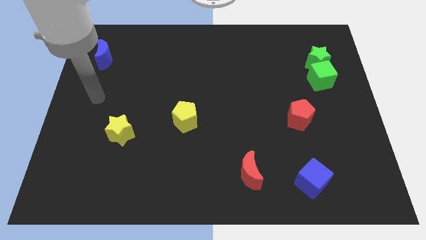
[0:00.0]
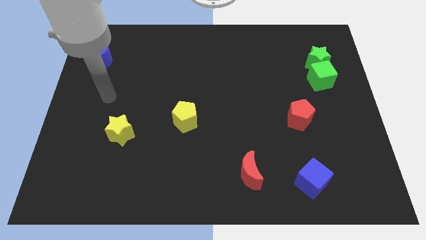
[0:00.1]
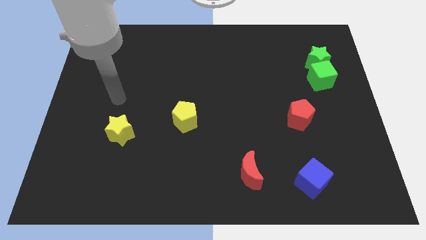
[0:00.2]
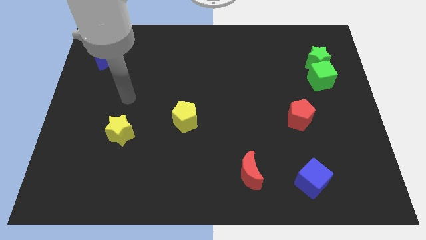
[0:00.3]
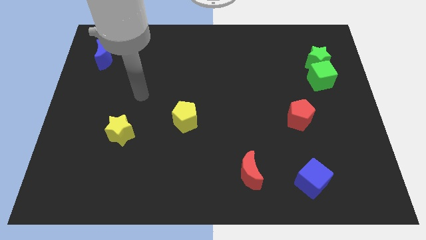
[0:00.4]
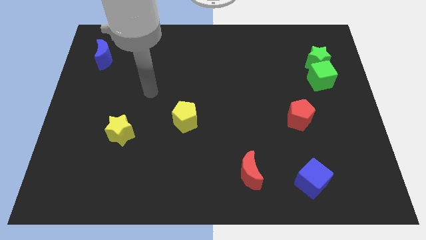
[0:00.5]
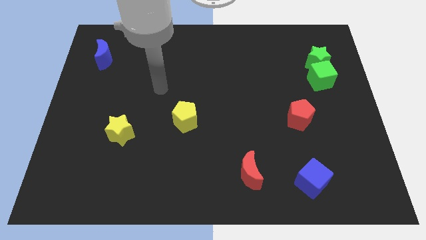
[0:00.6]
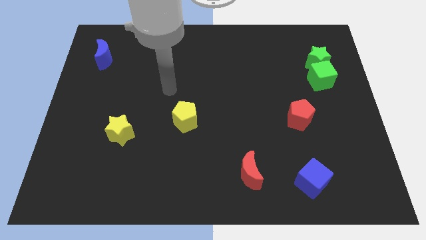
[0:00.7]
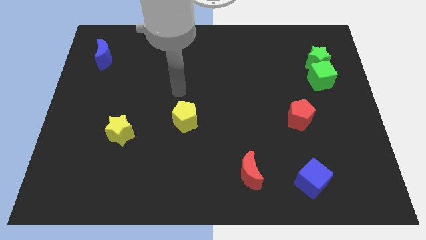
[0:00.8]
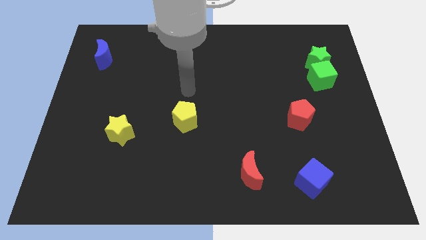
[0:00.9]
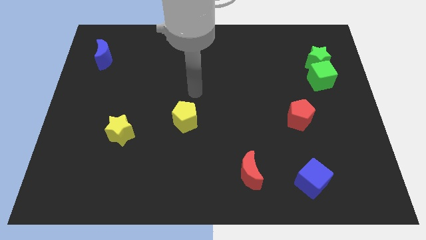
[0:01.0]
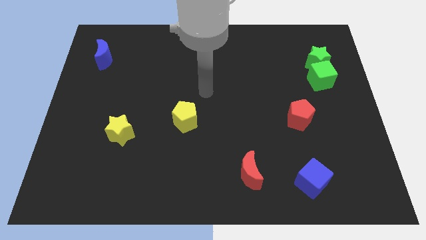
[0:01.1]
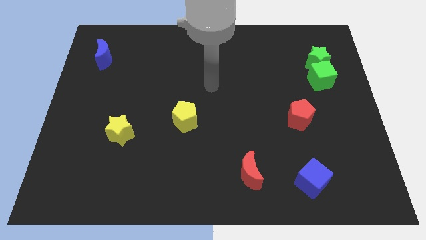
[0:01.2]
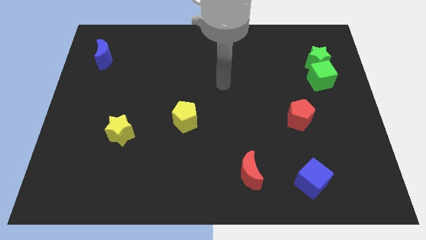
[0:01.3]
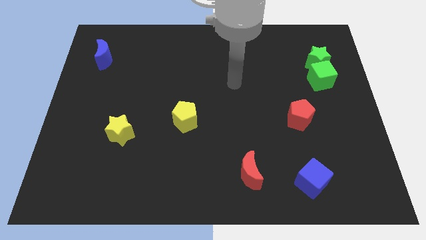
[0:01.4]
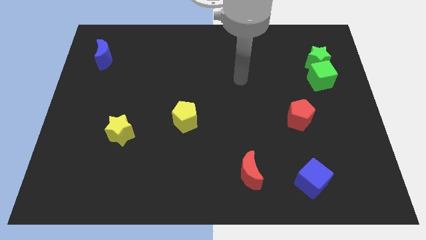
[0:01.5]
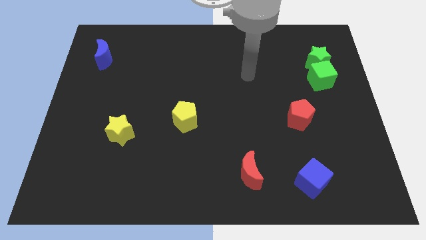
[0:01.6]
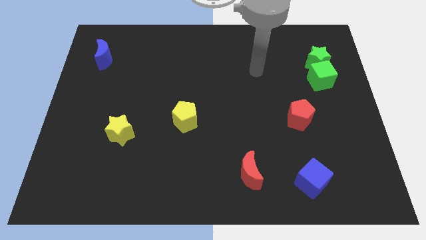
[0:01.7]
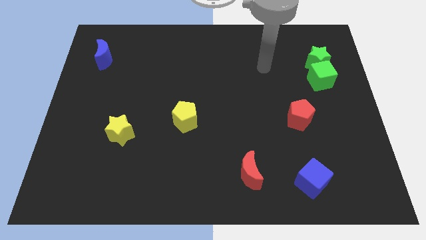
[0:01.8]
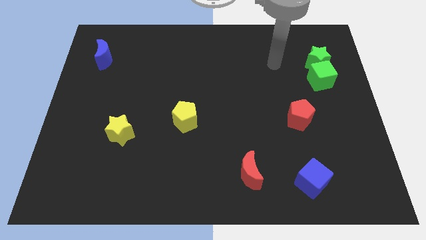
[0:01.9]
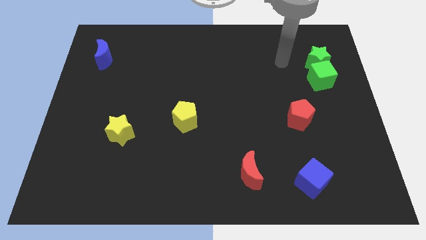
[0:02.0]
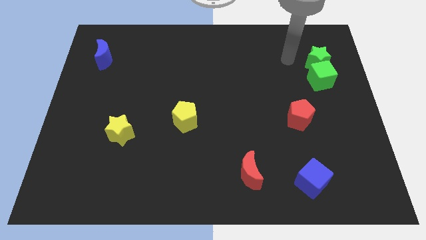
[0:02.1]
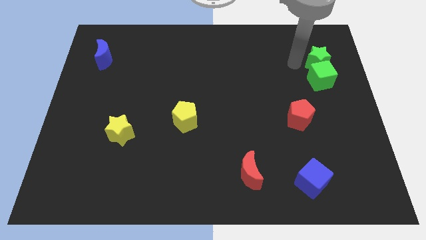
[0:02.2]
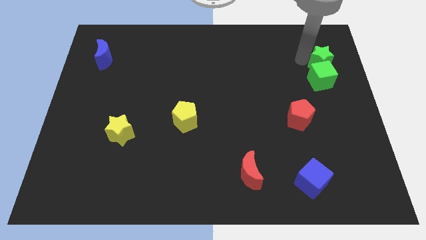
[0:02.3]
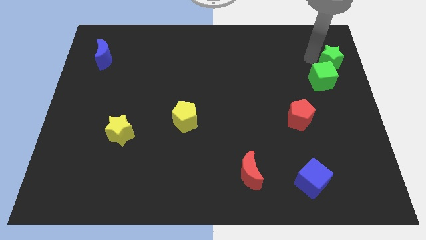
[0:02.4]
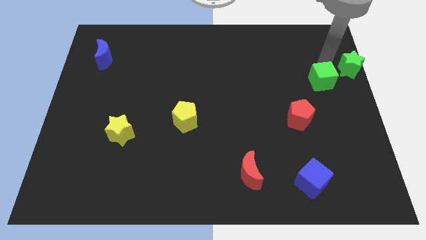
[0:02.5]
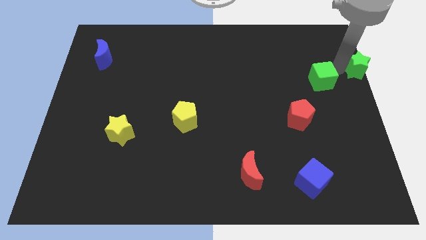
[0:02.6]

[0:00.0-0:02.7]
move the green cube away from the green star

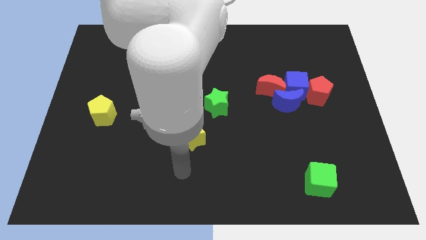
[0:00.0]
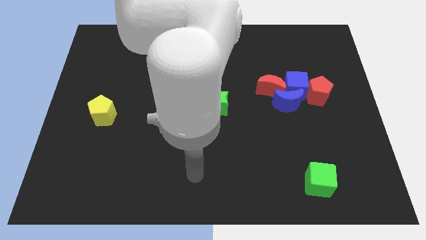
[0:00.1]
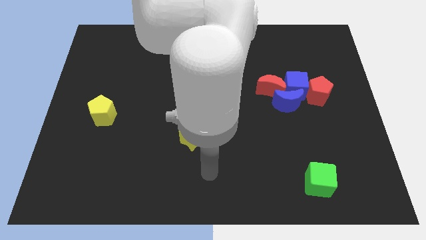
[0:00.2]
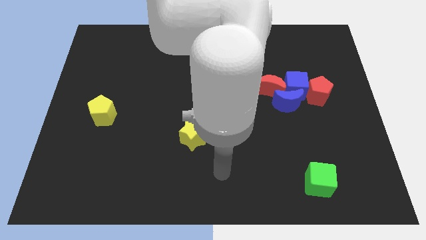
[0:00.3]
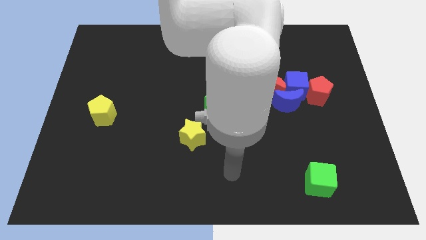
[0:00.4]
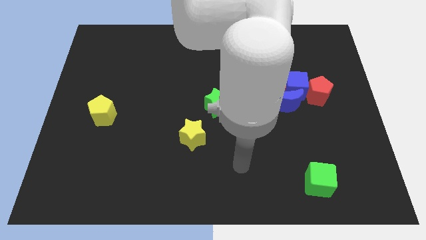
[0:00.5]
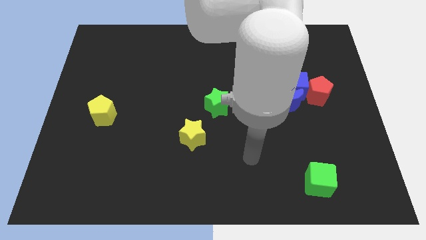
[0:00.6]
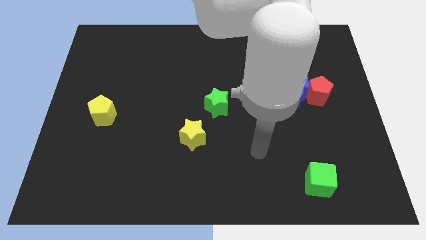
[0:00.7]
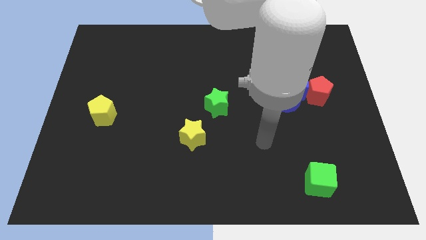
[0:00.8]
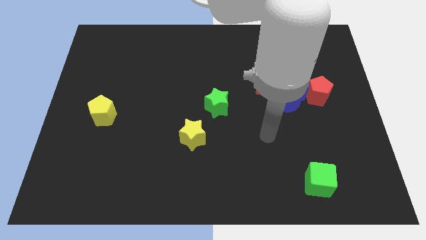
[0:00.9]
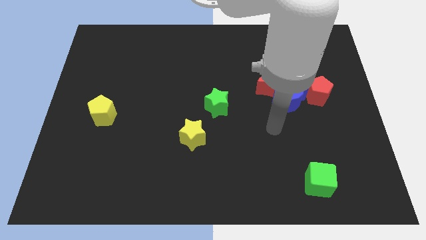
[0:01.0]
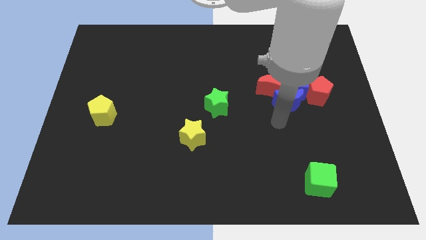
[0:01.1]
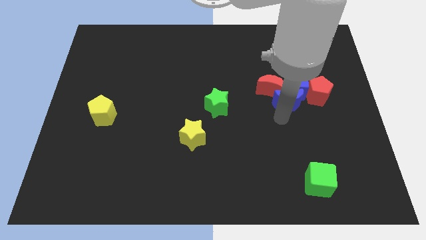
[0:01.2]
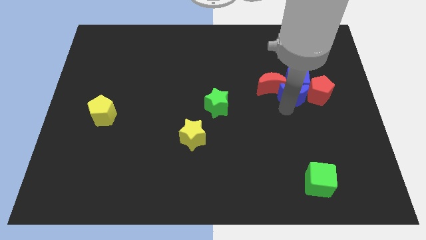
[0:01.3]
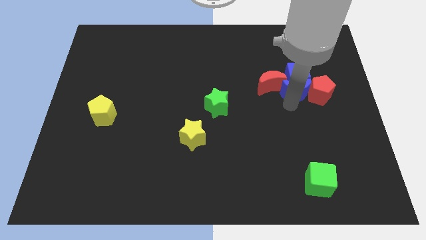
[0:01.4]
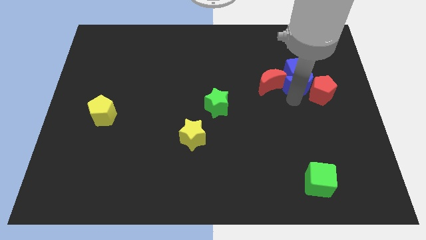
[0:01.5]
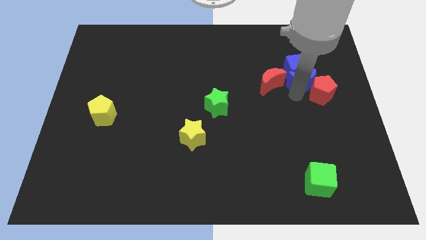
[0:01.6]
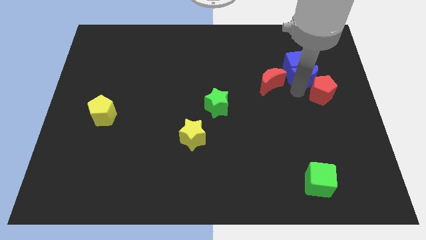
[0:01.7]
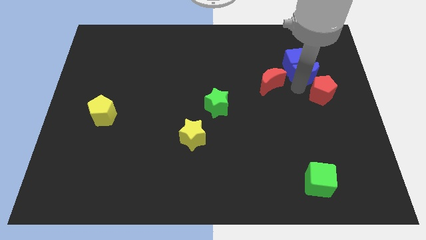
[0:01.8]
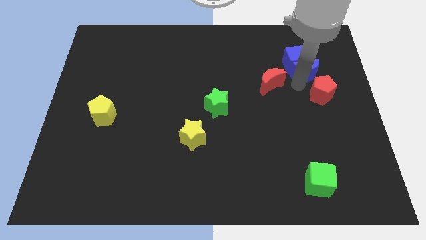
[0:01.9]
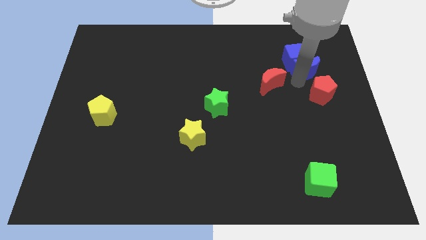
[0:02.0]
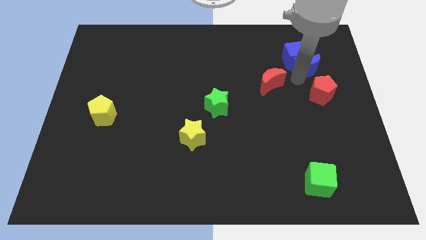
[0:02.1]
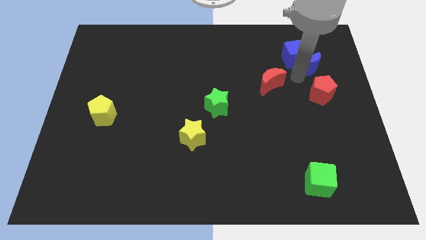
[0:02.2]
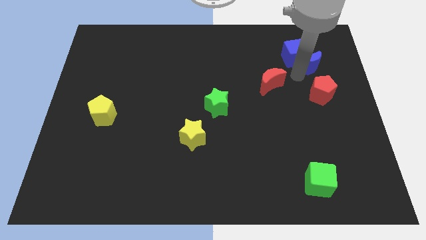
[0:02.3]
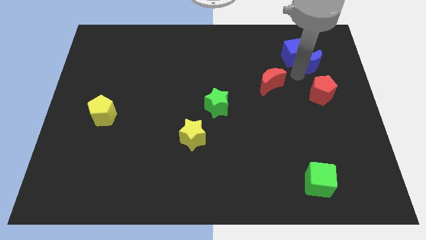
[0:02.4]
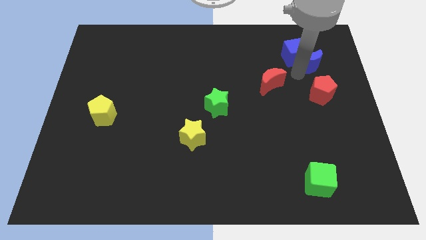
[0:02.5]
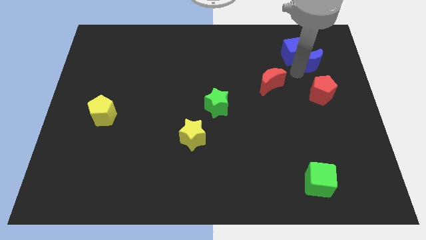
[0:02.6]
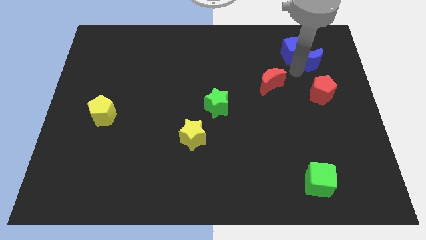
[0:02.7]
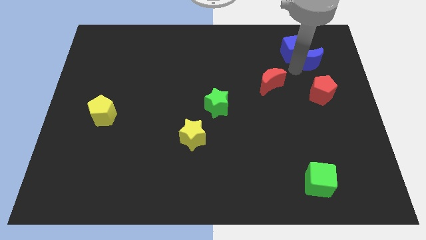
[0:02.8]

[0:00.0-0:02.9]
separate the blue cube from the blue moon, red pentagon, and red moon

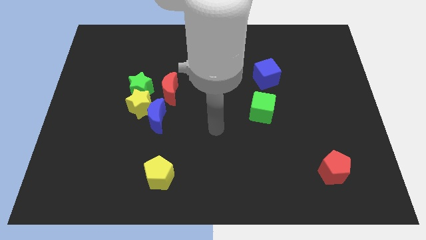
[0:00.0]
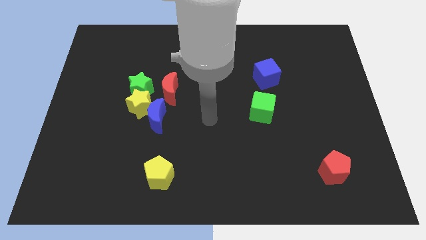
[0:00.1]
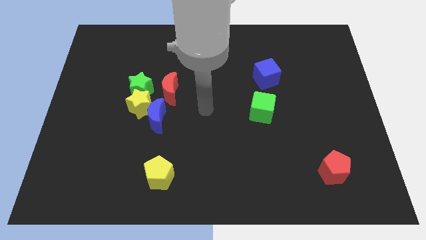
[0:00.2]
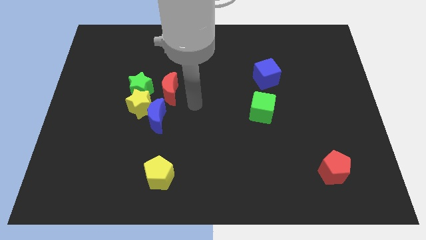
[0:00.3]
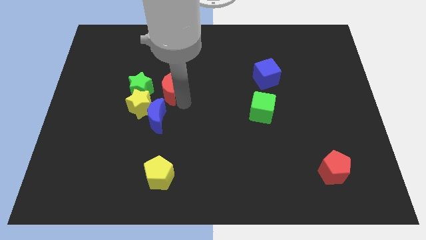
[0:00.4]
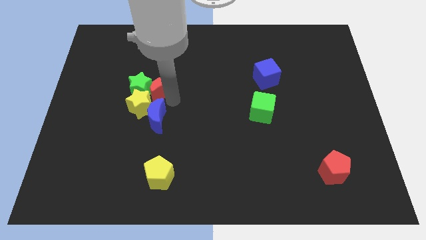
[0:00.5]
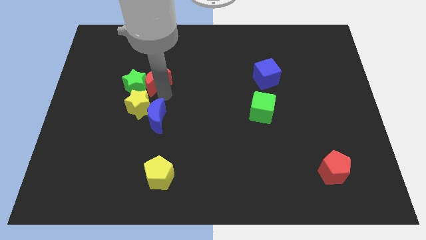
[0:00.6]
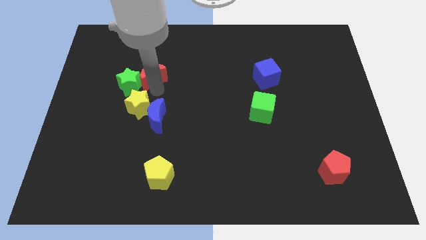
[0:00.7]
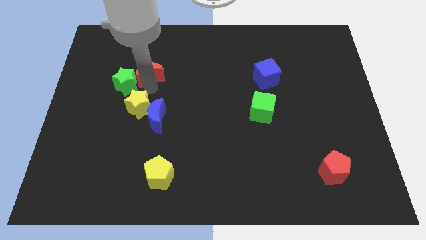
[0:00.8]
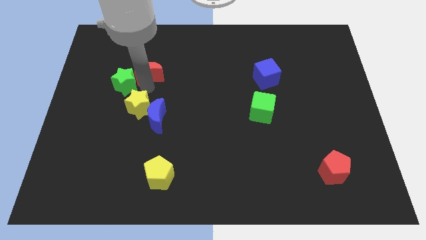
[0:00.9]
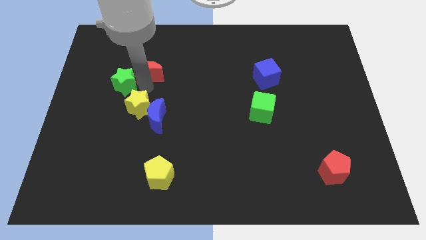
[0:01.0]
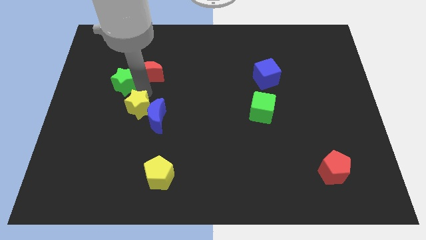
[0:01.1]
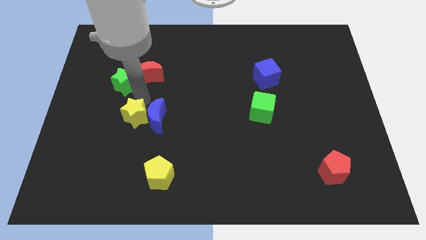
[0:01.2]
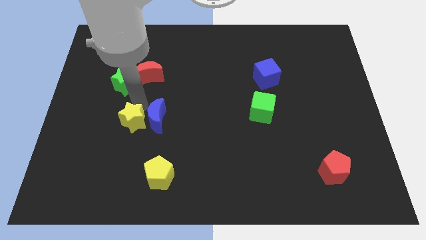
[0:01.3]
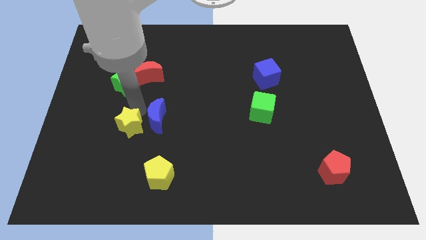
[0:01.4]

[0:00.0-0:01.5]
move the yellow star away from the blue moon, green star, and red moon

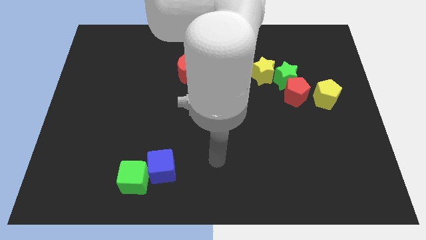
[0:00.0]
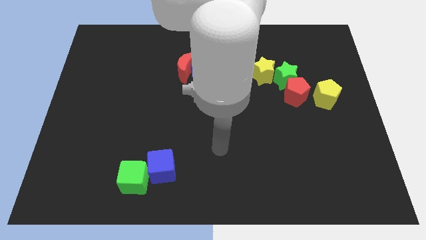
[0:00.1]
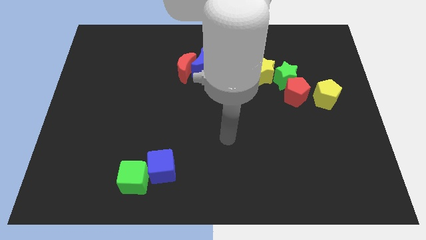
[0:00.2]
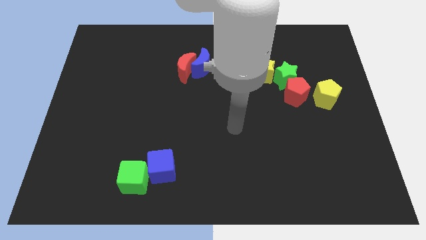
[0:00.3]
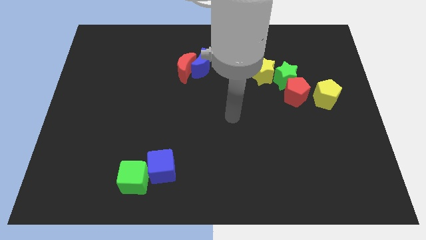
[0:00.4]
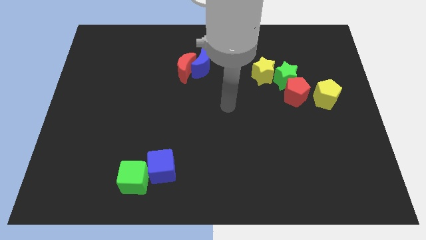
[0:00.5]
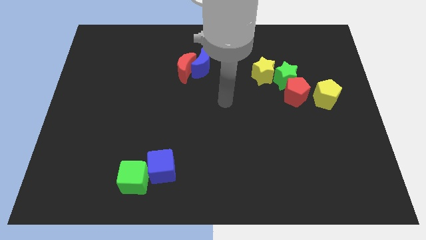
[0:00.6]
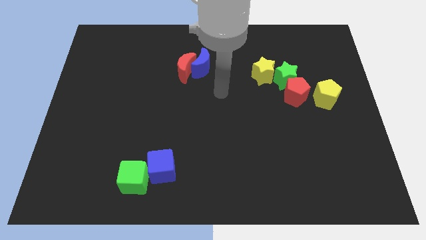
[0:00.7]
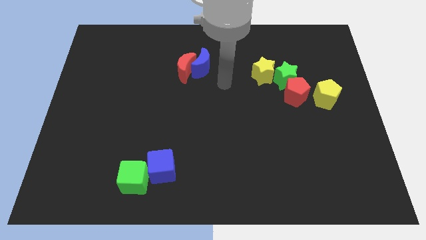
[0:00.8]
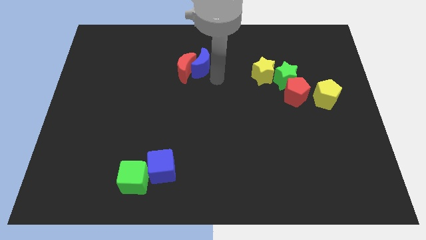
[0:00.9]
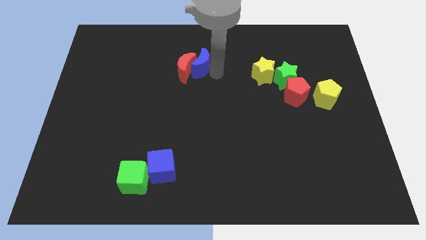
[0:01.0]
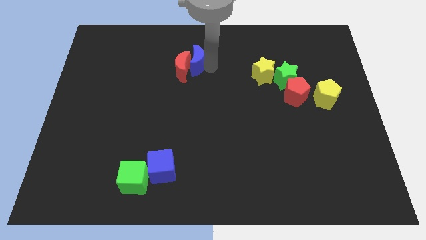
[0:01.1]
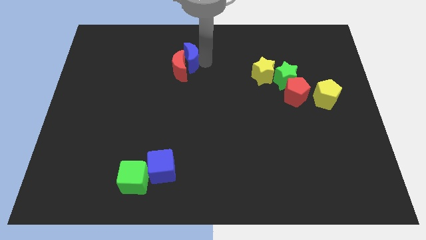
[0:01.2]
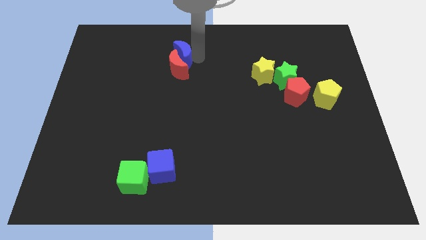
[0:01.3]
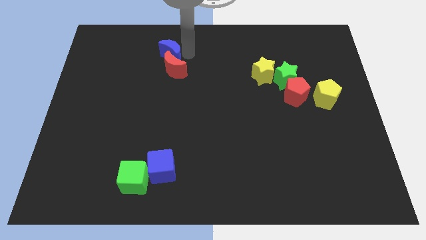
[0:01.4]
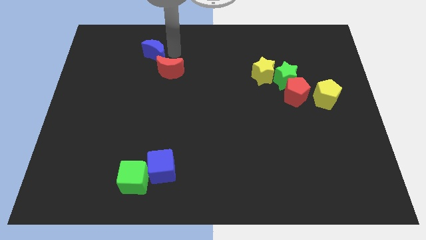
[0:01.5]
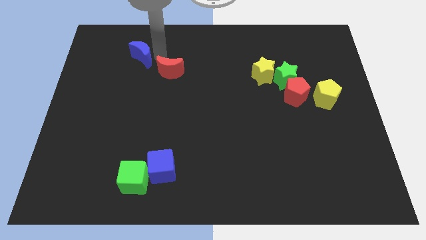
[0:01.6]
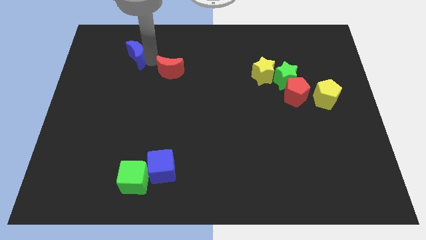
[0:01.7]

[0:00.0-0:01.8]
pull the red moon apart from the blue moon

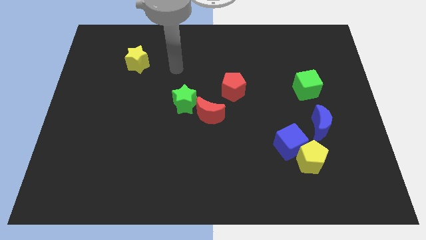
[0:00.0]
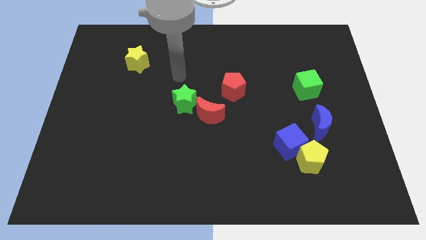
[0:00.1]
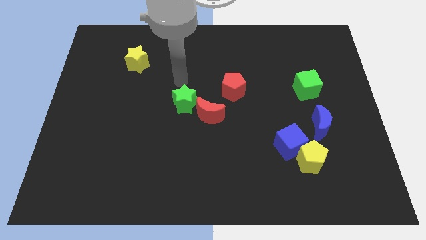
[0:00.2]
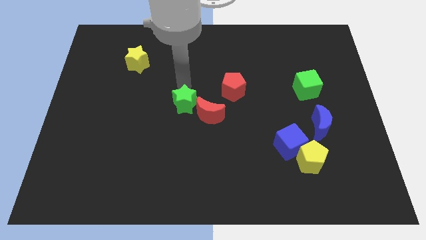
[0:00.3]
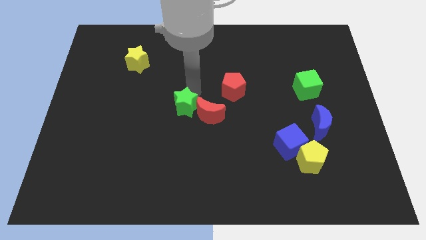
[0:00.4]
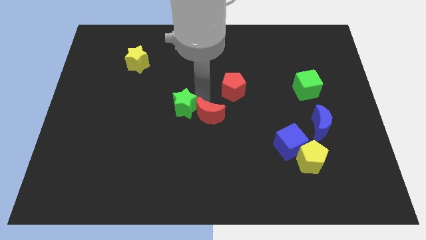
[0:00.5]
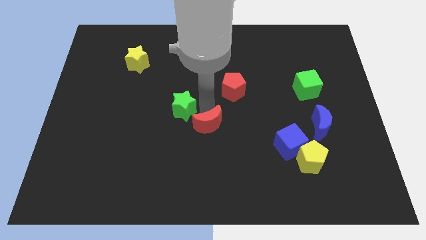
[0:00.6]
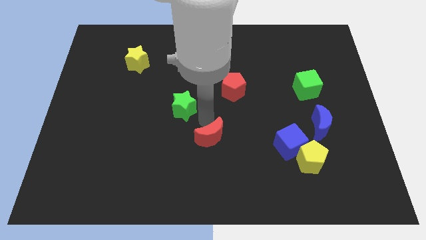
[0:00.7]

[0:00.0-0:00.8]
separate the green star from the red moon
